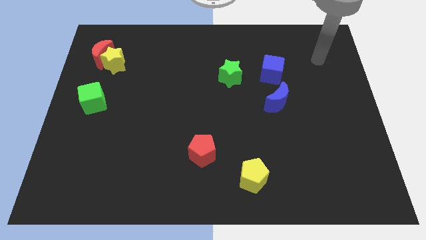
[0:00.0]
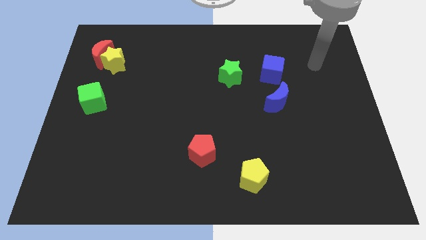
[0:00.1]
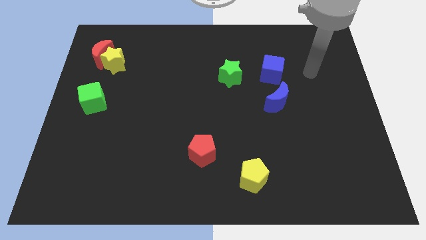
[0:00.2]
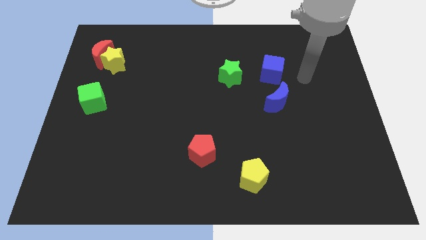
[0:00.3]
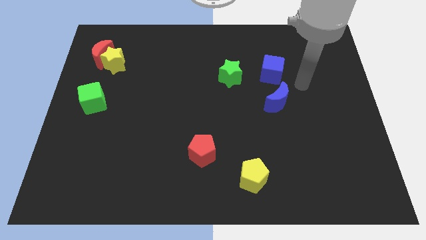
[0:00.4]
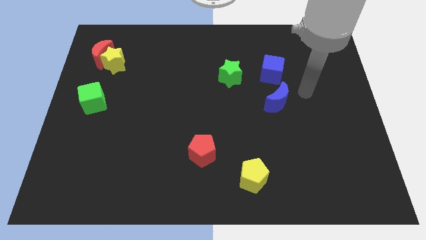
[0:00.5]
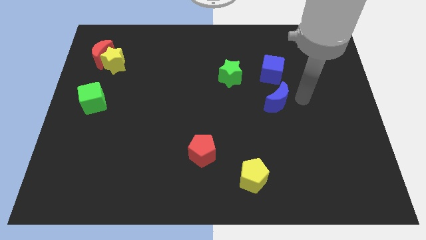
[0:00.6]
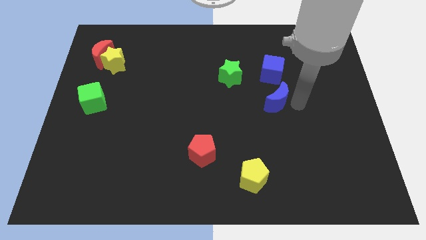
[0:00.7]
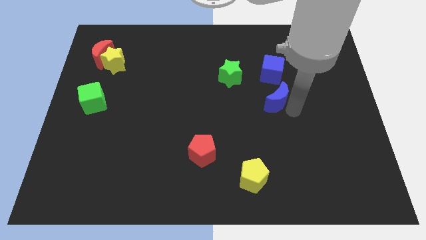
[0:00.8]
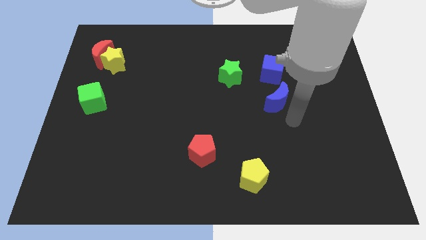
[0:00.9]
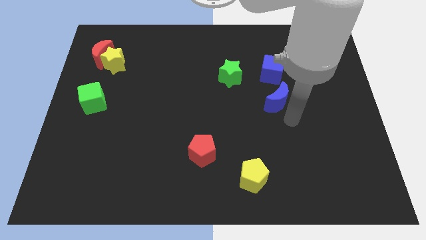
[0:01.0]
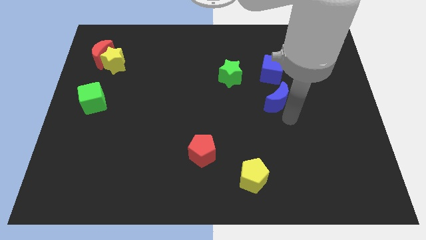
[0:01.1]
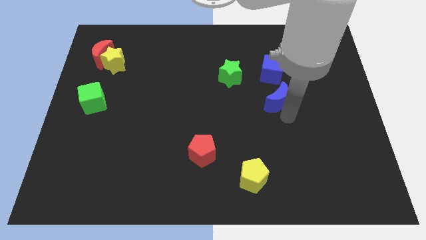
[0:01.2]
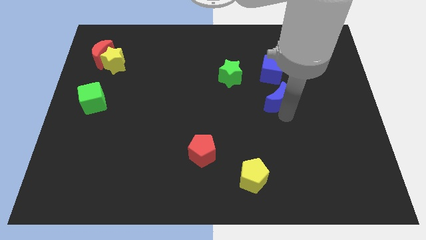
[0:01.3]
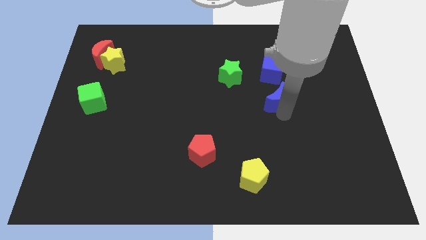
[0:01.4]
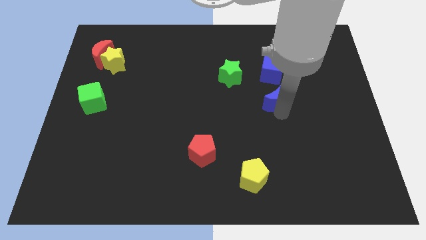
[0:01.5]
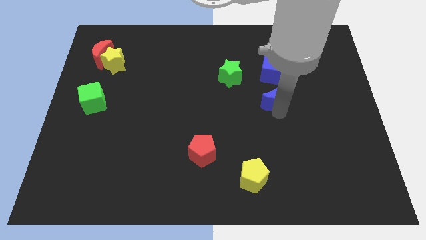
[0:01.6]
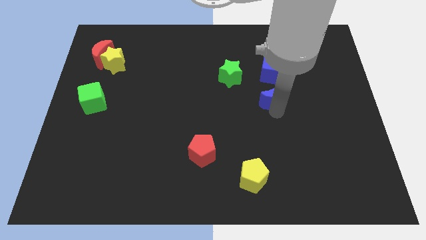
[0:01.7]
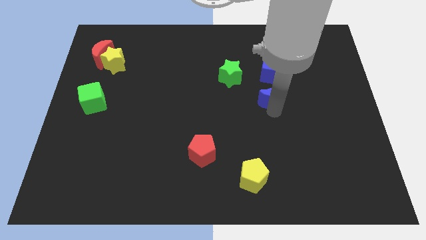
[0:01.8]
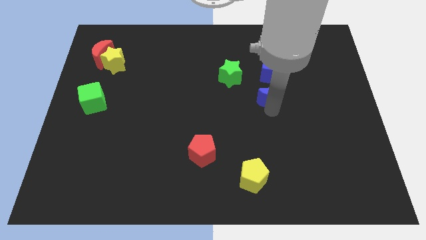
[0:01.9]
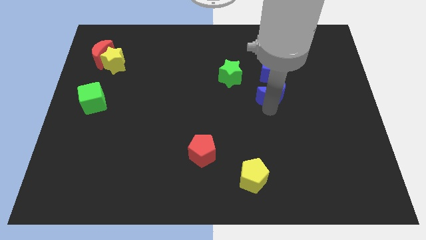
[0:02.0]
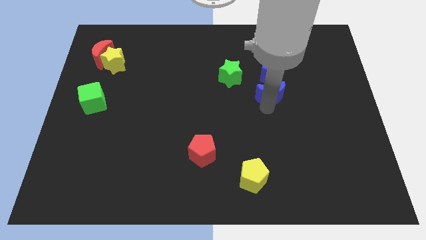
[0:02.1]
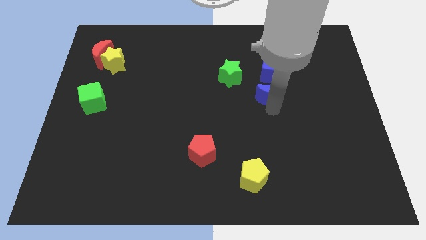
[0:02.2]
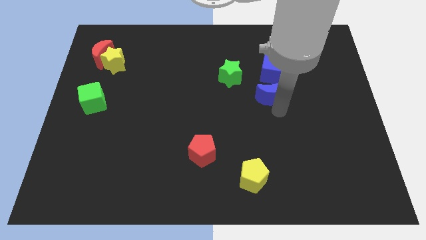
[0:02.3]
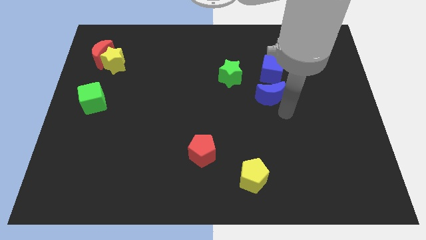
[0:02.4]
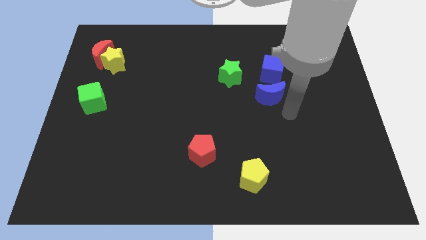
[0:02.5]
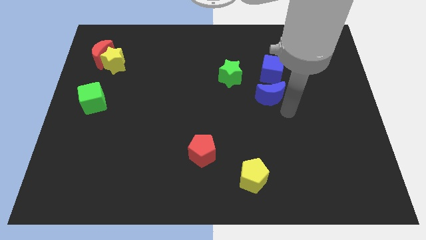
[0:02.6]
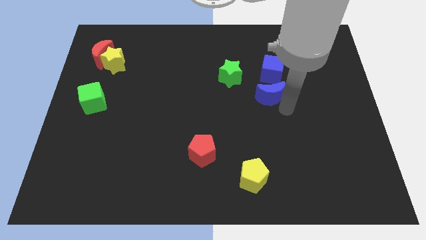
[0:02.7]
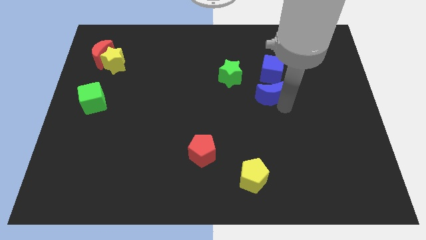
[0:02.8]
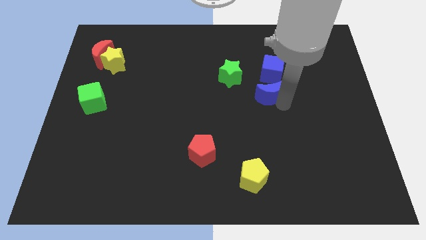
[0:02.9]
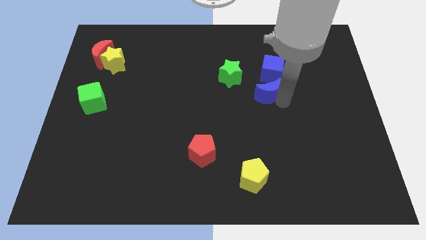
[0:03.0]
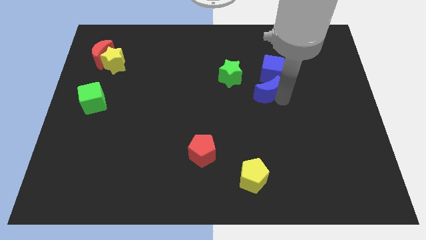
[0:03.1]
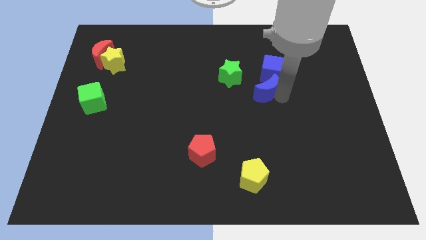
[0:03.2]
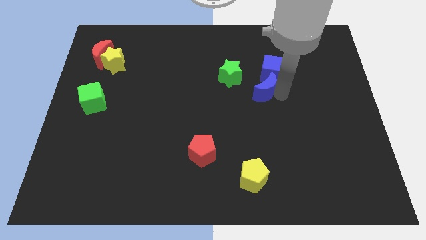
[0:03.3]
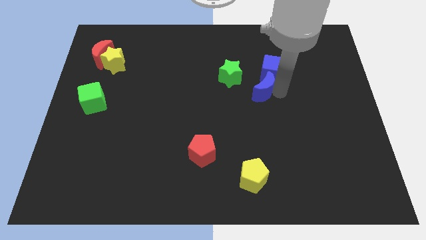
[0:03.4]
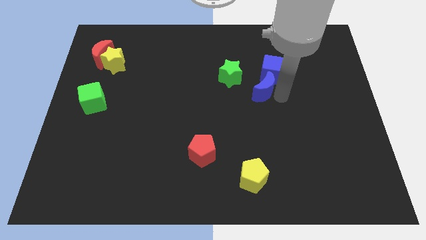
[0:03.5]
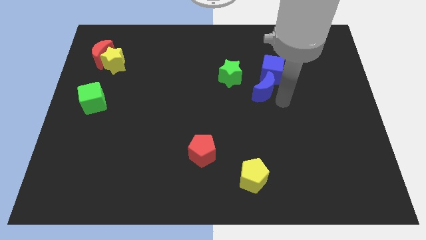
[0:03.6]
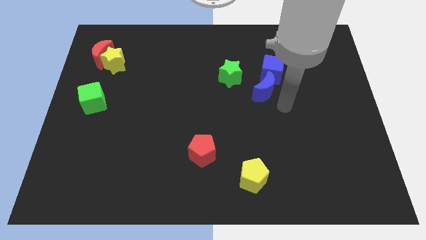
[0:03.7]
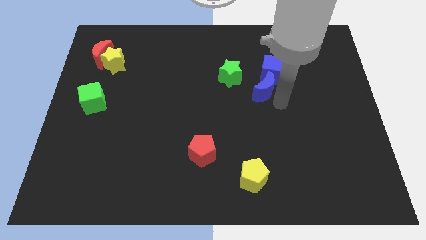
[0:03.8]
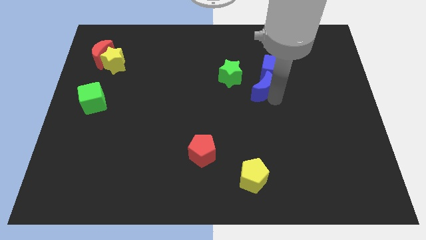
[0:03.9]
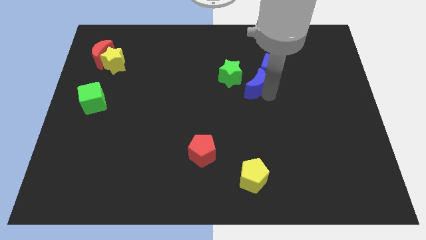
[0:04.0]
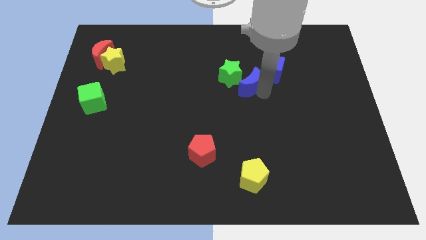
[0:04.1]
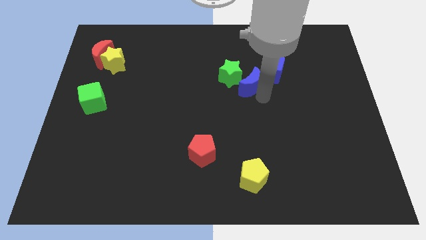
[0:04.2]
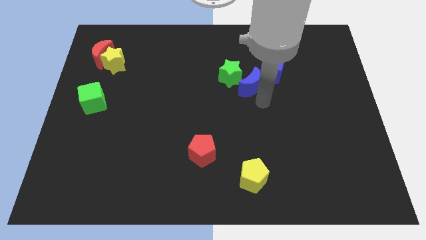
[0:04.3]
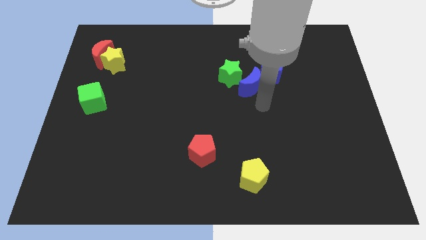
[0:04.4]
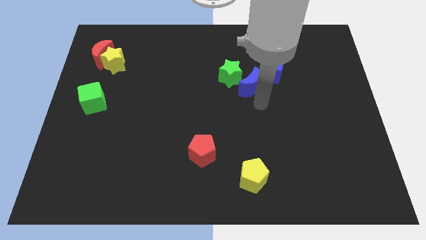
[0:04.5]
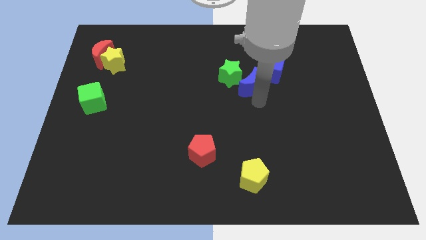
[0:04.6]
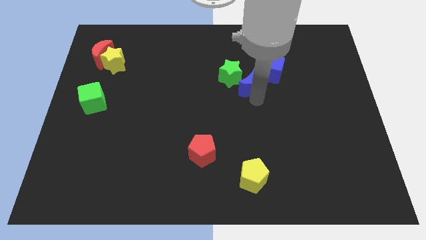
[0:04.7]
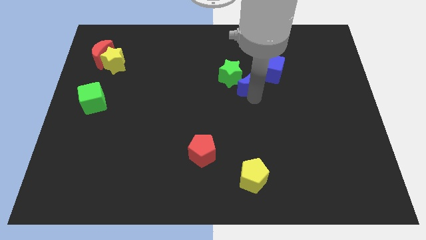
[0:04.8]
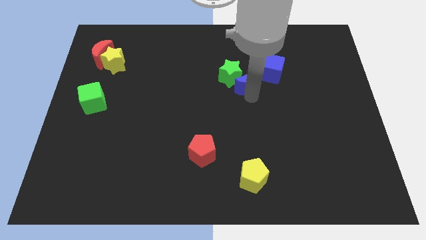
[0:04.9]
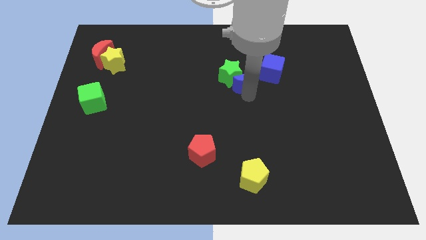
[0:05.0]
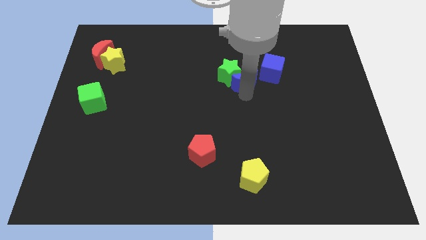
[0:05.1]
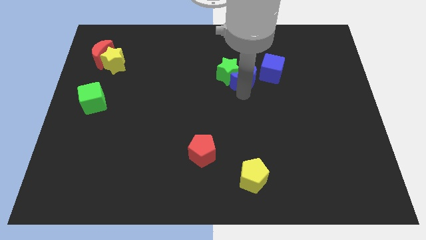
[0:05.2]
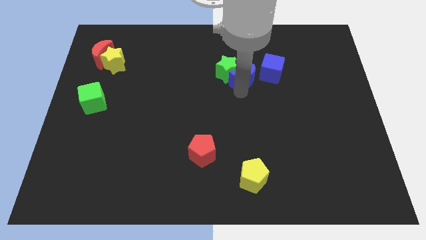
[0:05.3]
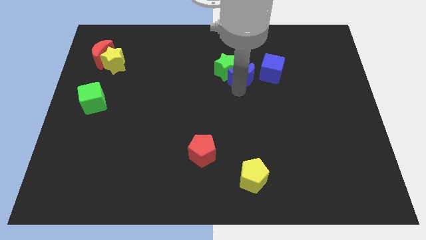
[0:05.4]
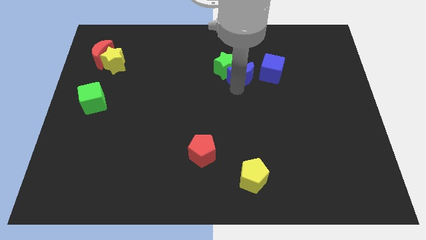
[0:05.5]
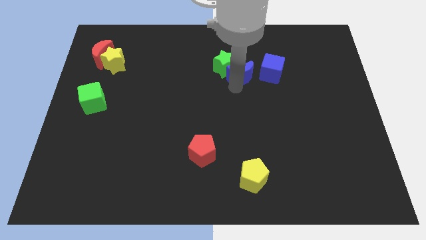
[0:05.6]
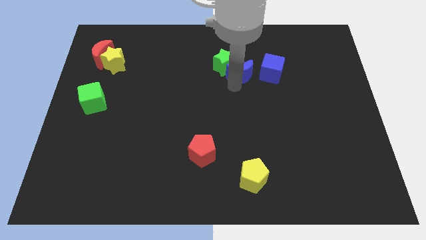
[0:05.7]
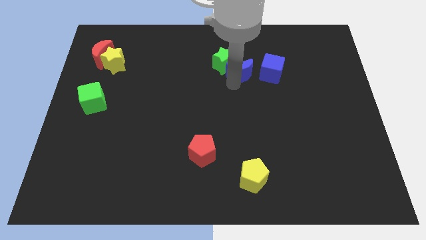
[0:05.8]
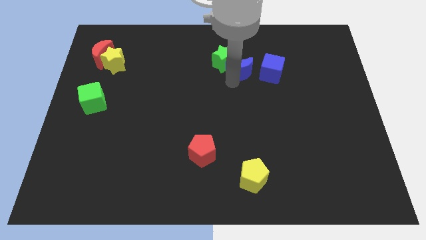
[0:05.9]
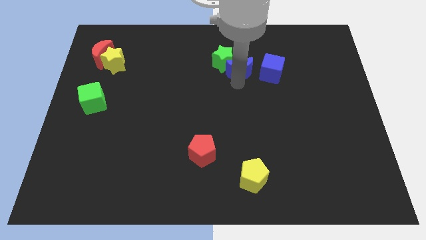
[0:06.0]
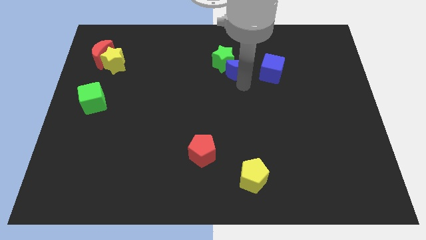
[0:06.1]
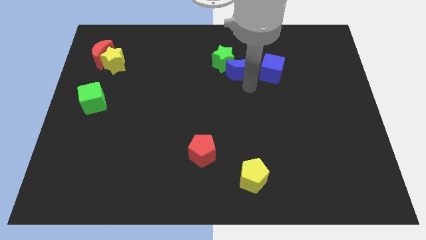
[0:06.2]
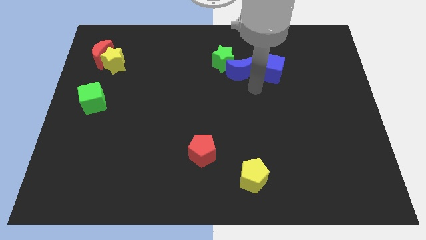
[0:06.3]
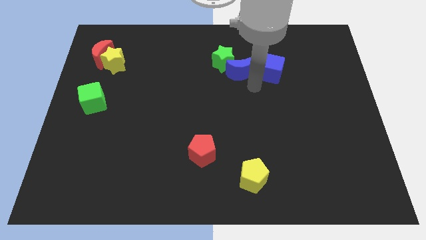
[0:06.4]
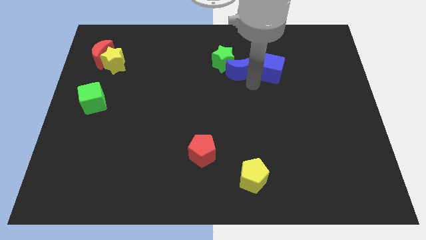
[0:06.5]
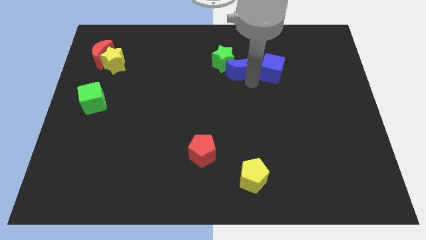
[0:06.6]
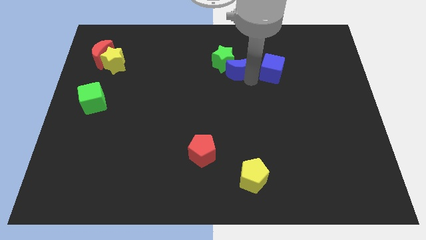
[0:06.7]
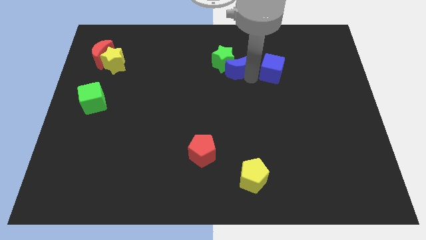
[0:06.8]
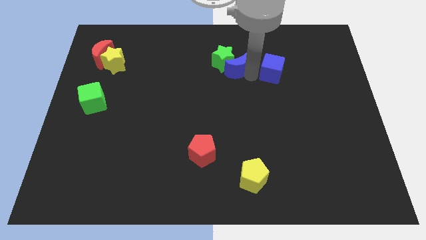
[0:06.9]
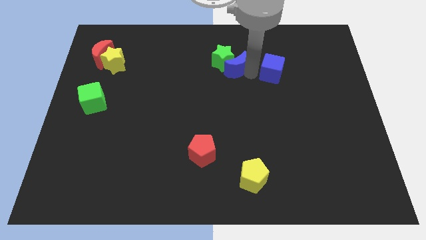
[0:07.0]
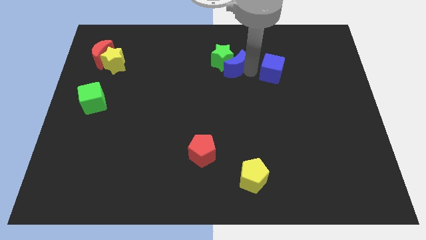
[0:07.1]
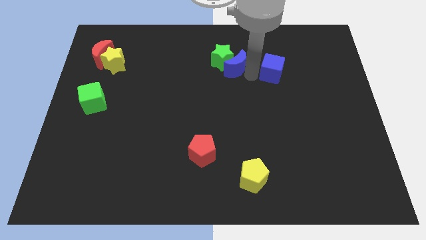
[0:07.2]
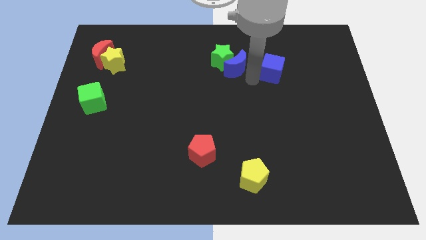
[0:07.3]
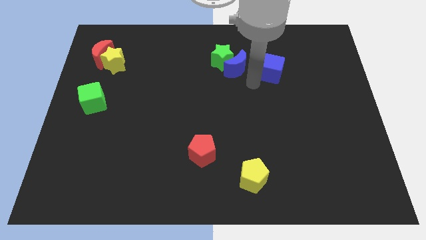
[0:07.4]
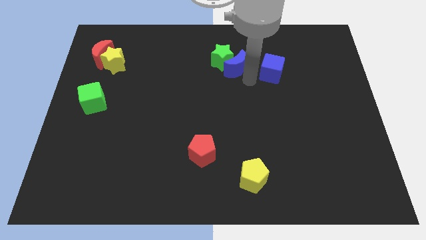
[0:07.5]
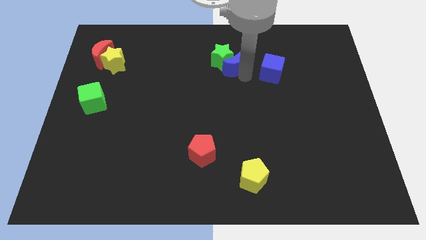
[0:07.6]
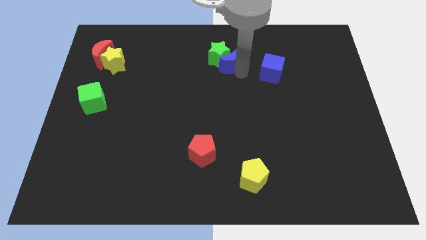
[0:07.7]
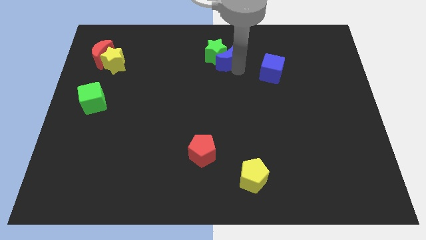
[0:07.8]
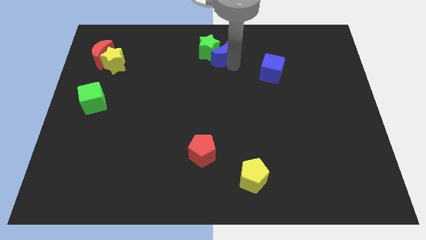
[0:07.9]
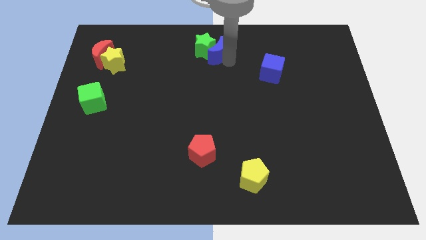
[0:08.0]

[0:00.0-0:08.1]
put the blue moon to the top side
